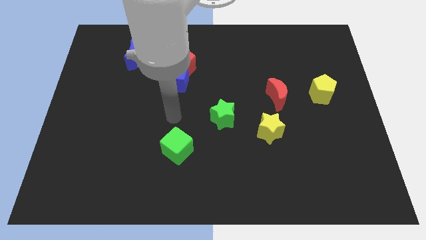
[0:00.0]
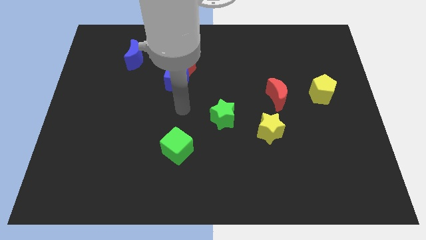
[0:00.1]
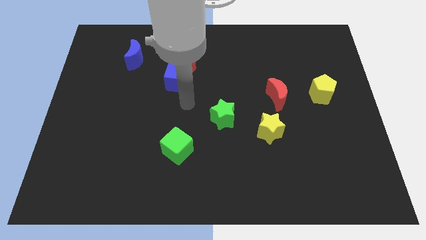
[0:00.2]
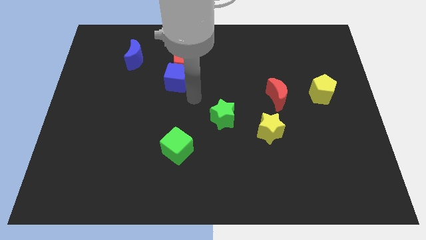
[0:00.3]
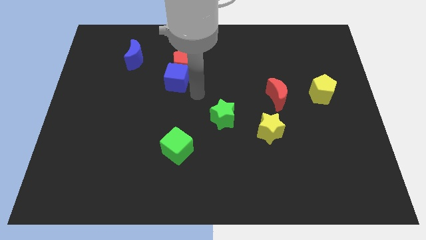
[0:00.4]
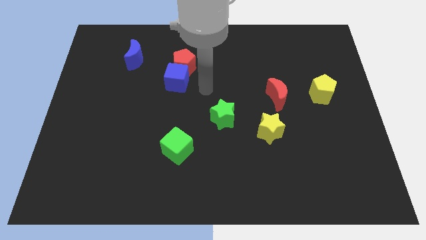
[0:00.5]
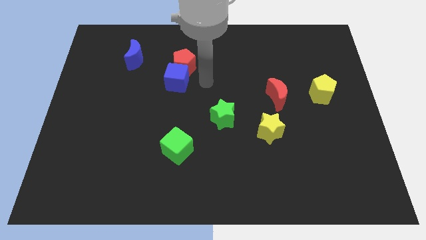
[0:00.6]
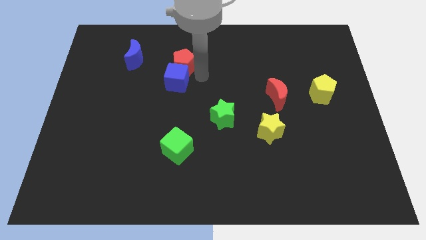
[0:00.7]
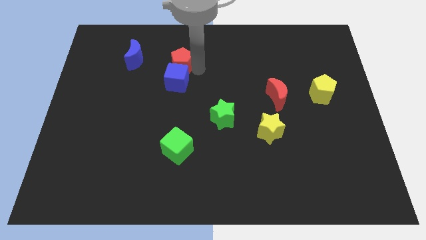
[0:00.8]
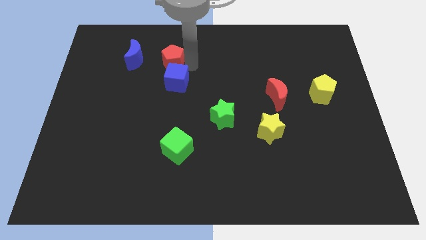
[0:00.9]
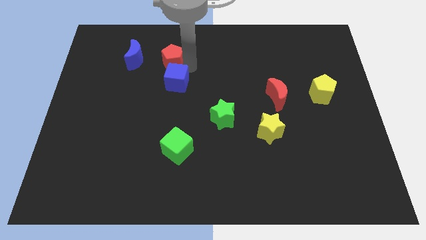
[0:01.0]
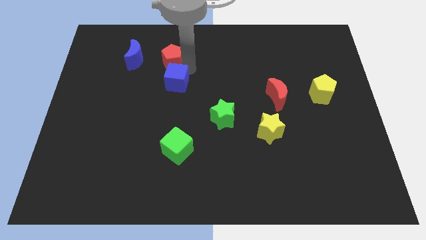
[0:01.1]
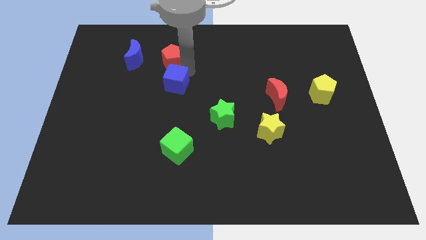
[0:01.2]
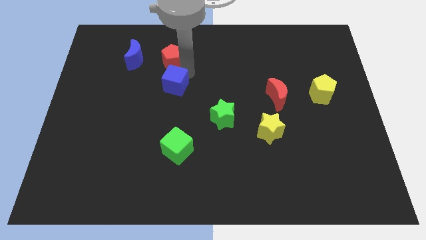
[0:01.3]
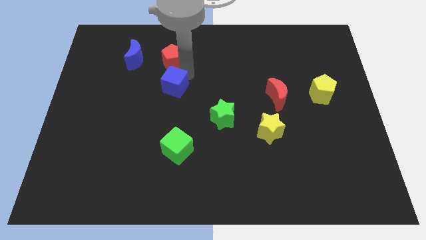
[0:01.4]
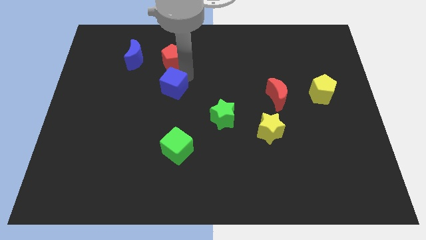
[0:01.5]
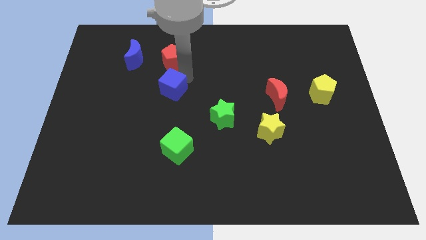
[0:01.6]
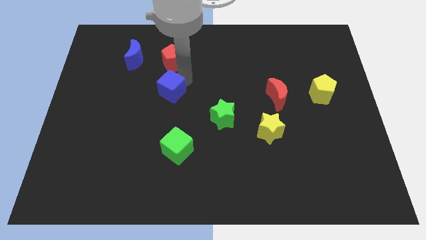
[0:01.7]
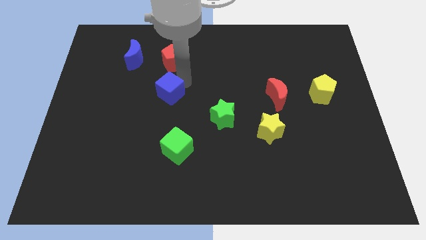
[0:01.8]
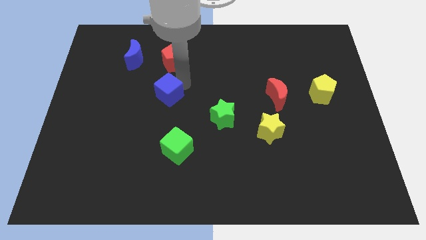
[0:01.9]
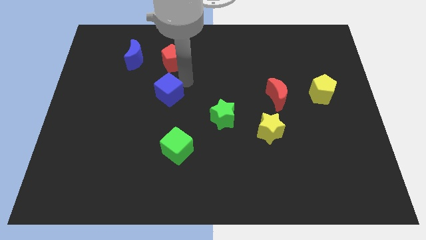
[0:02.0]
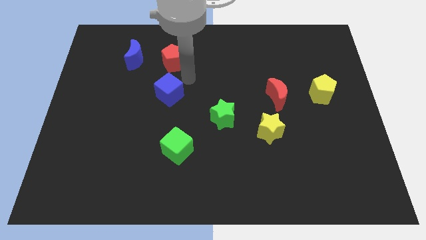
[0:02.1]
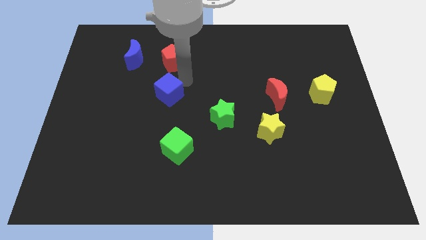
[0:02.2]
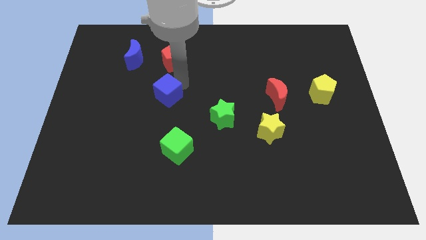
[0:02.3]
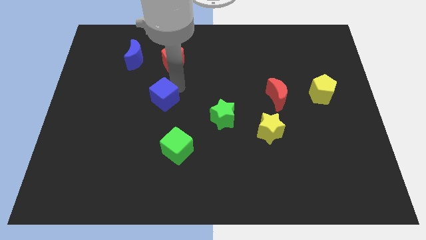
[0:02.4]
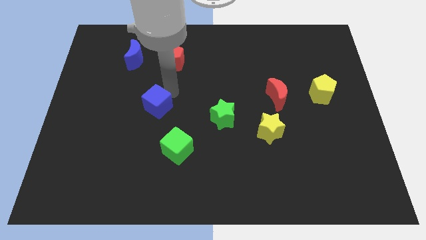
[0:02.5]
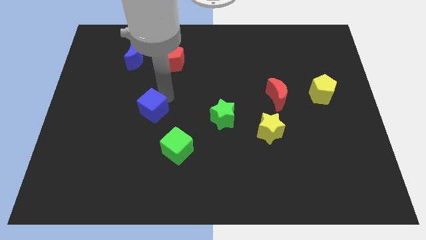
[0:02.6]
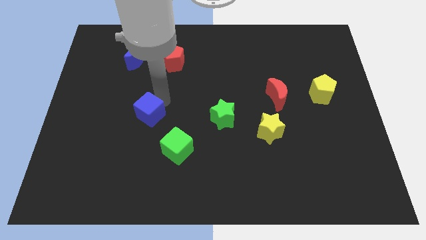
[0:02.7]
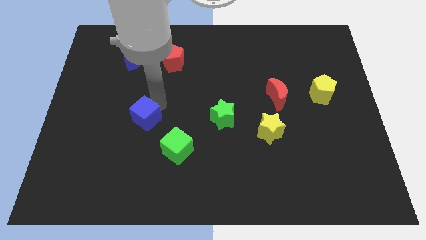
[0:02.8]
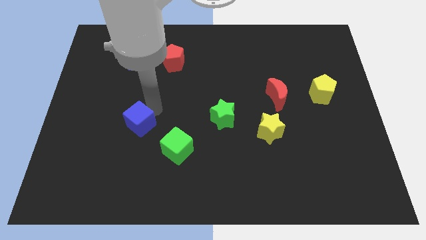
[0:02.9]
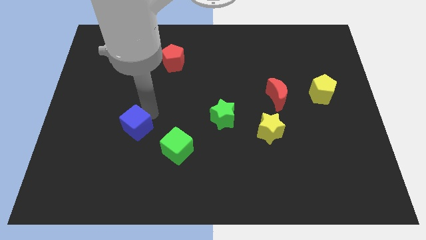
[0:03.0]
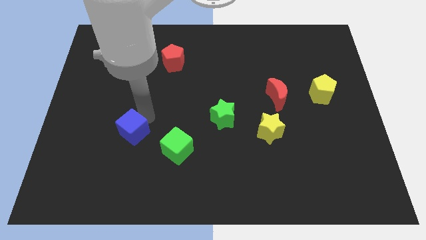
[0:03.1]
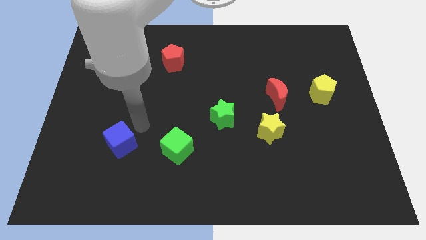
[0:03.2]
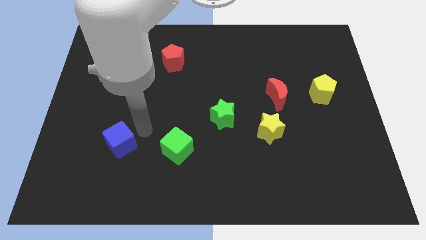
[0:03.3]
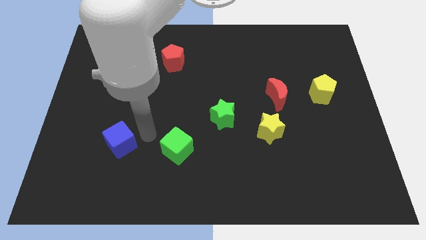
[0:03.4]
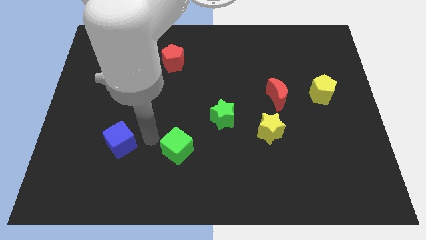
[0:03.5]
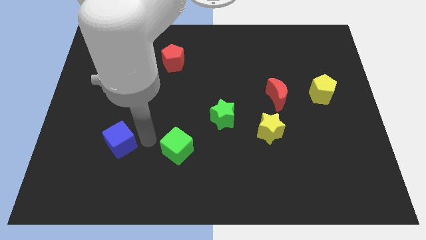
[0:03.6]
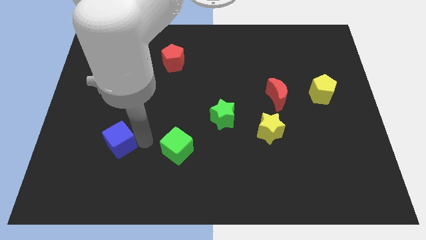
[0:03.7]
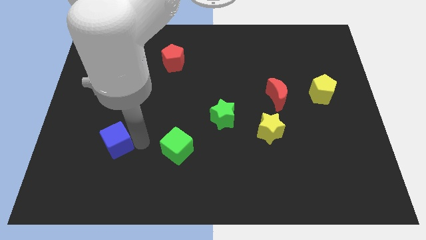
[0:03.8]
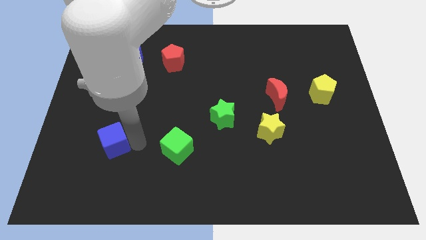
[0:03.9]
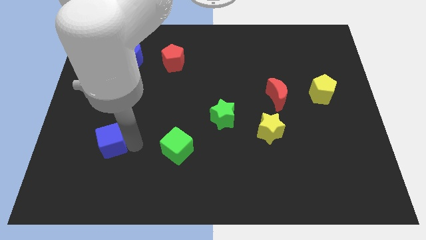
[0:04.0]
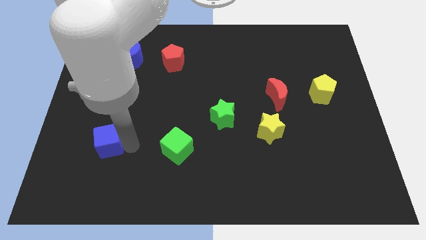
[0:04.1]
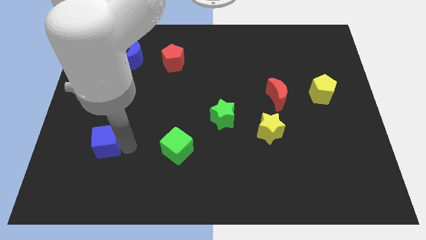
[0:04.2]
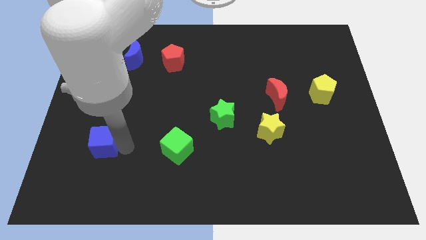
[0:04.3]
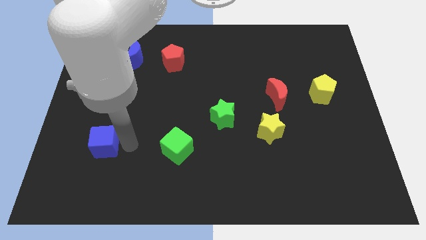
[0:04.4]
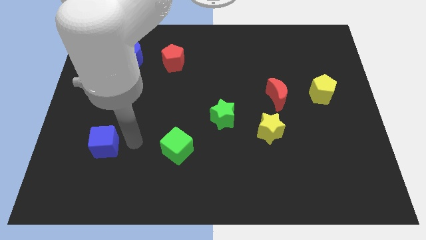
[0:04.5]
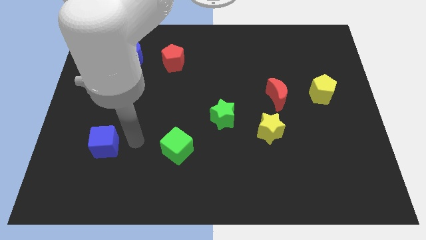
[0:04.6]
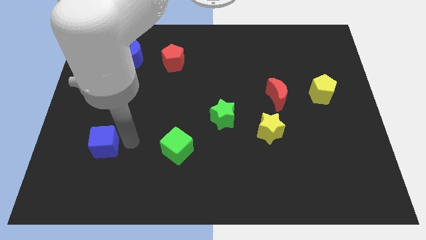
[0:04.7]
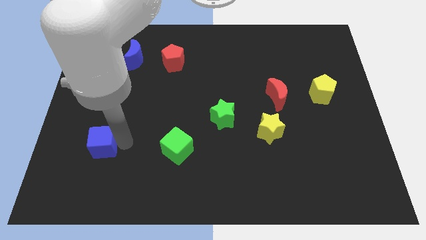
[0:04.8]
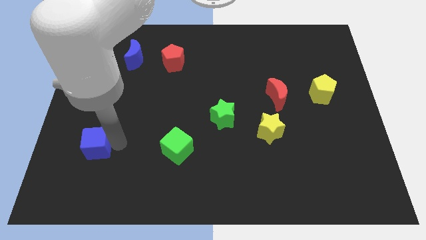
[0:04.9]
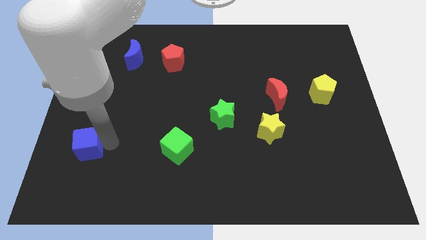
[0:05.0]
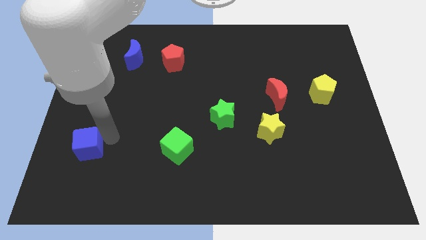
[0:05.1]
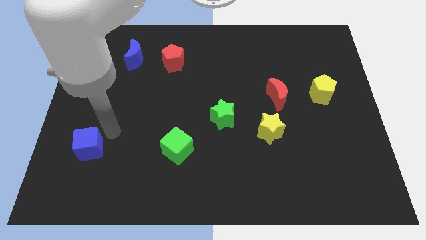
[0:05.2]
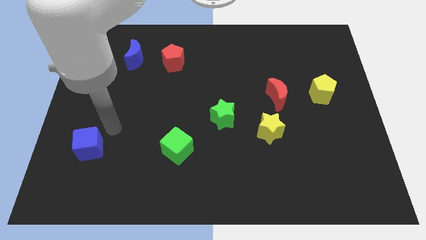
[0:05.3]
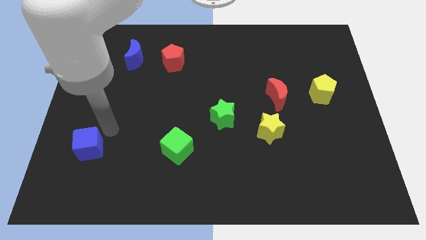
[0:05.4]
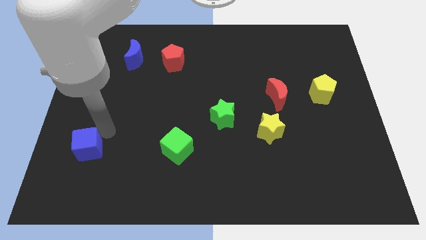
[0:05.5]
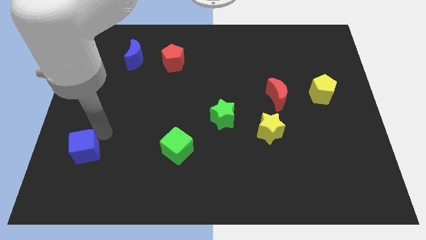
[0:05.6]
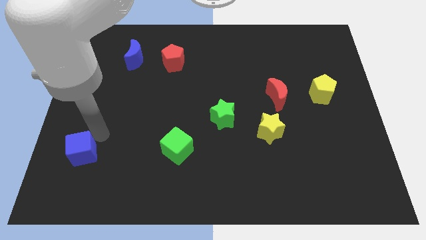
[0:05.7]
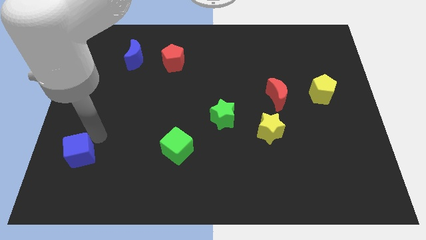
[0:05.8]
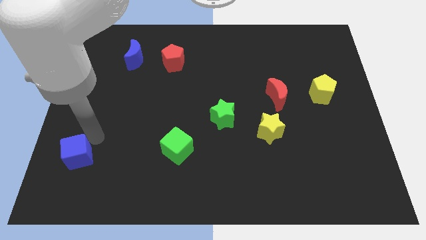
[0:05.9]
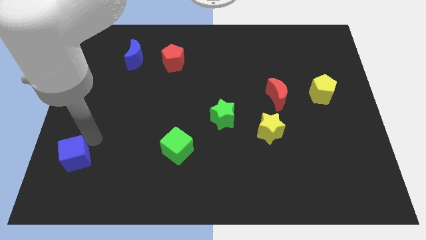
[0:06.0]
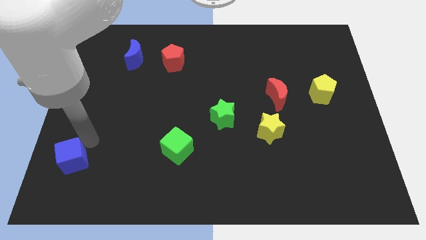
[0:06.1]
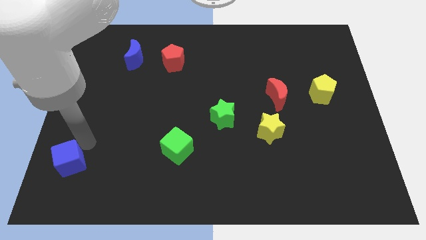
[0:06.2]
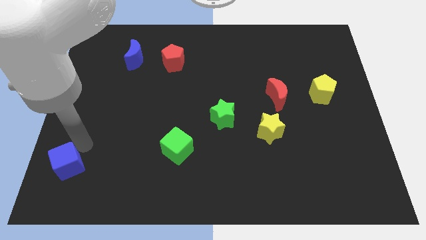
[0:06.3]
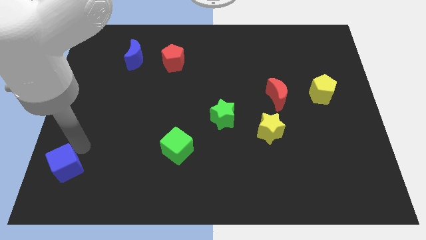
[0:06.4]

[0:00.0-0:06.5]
push the blue cube to the bottom left corner
